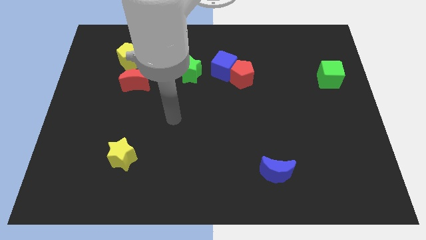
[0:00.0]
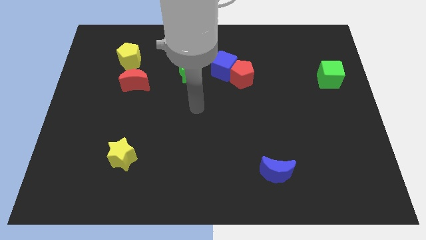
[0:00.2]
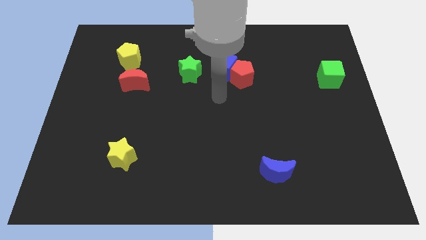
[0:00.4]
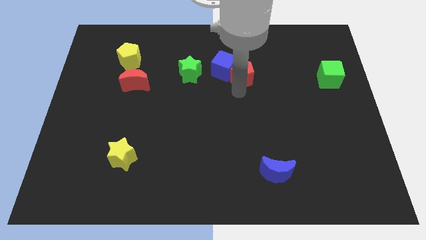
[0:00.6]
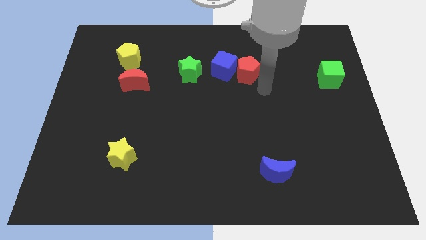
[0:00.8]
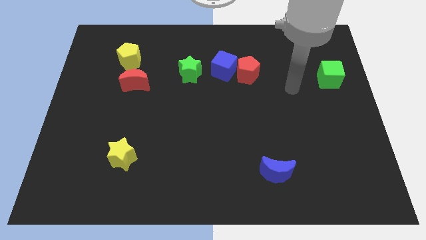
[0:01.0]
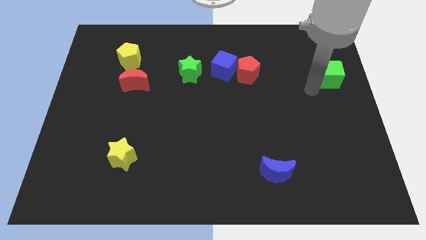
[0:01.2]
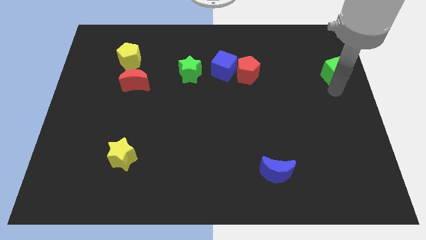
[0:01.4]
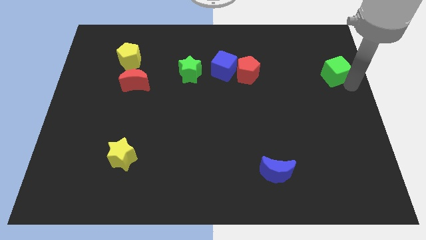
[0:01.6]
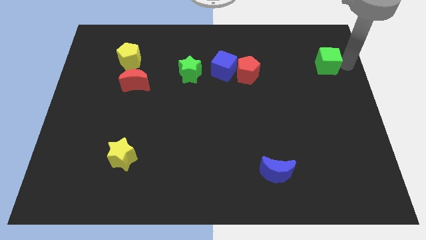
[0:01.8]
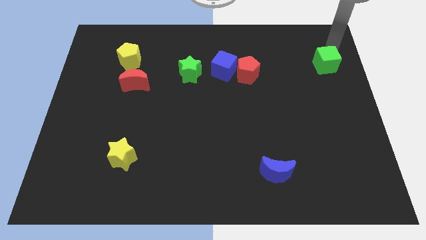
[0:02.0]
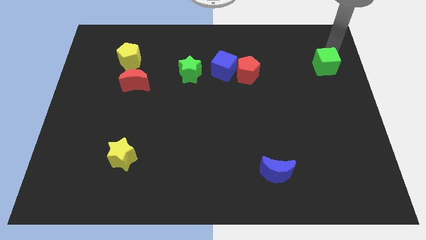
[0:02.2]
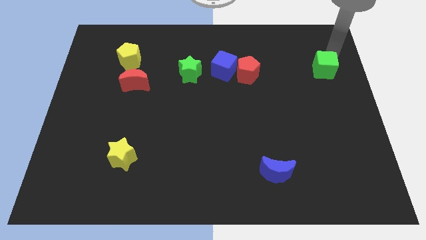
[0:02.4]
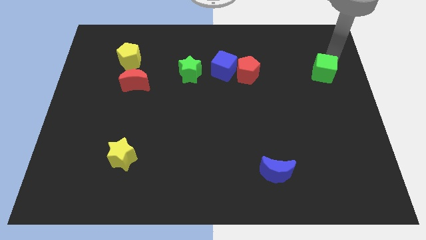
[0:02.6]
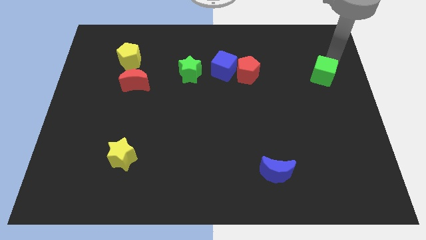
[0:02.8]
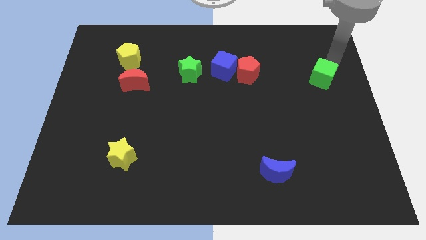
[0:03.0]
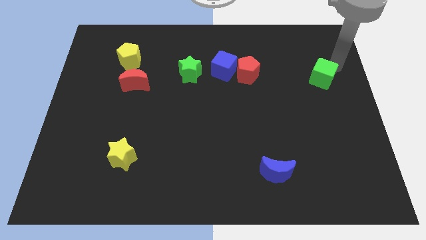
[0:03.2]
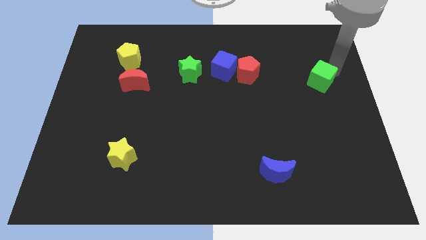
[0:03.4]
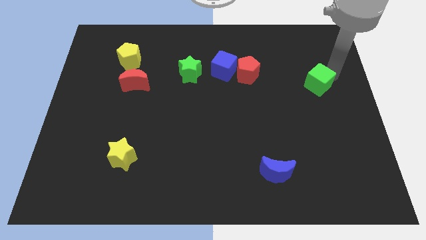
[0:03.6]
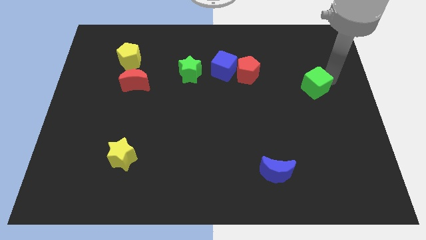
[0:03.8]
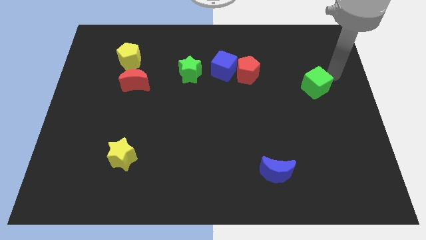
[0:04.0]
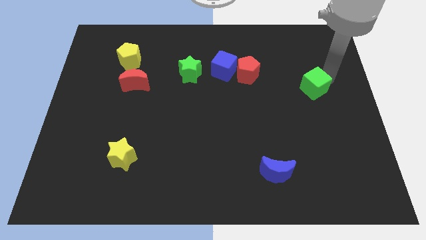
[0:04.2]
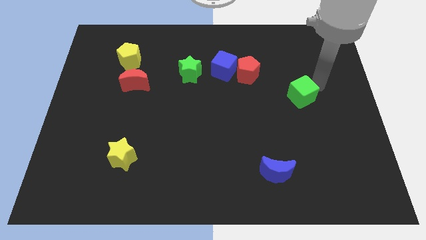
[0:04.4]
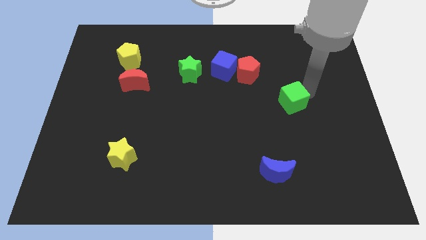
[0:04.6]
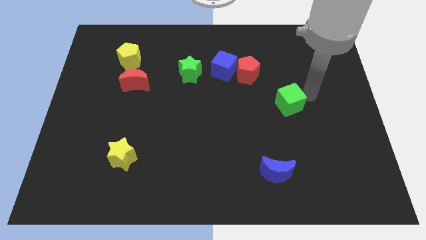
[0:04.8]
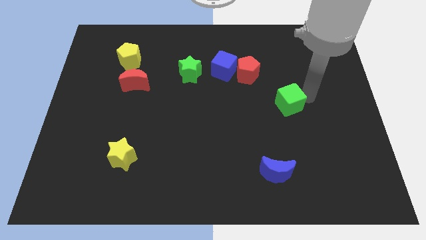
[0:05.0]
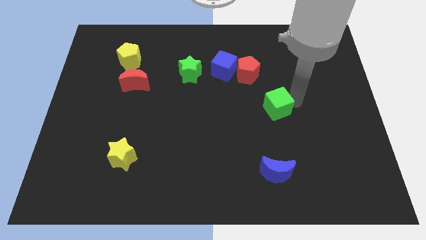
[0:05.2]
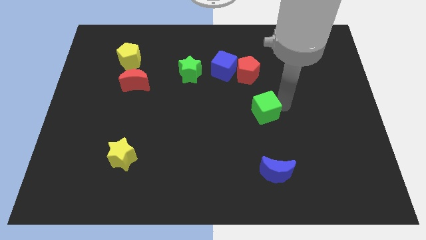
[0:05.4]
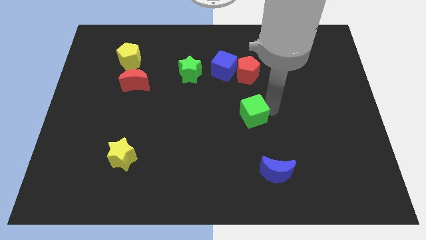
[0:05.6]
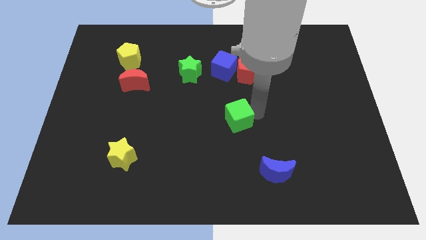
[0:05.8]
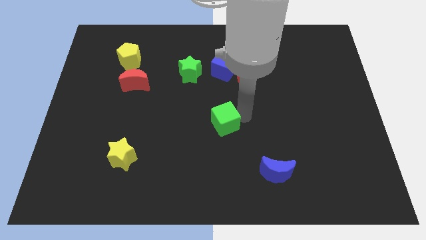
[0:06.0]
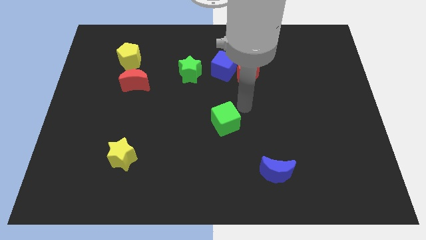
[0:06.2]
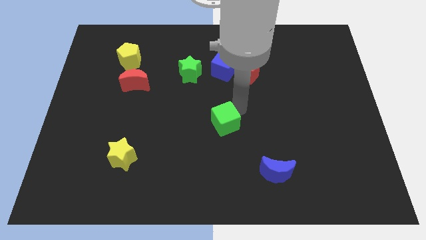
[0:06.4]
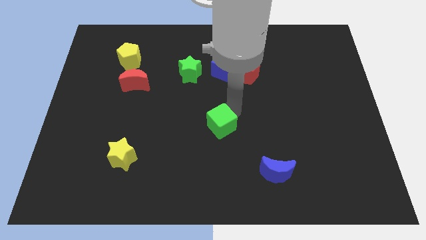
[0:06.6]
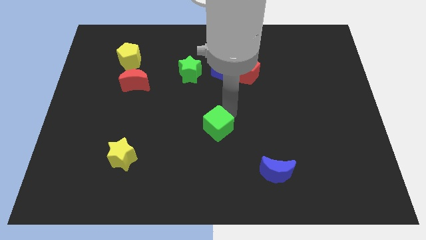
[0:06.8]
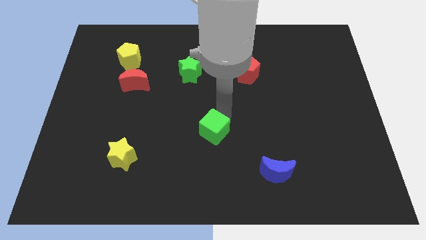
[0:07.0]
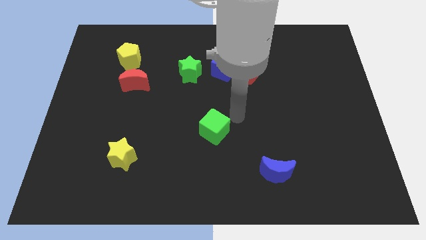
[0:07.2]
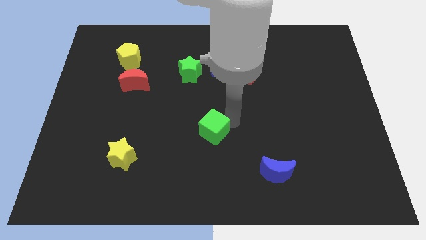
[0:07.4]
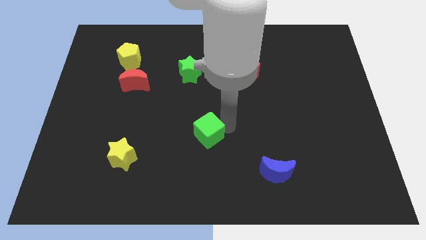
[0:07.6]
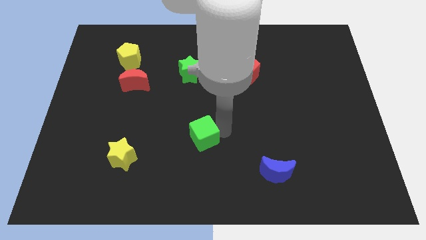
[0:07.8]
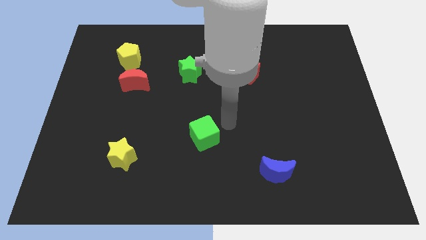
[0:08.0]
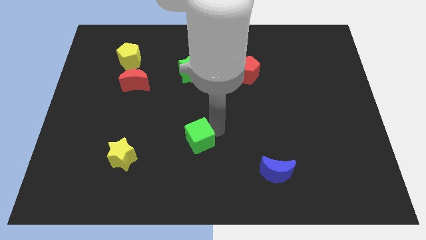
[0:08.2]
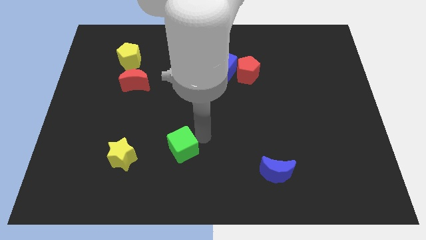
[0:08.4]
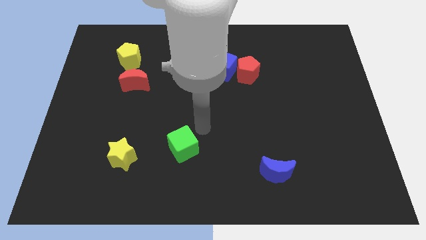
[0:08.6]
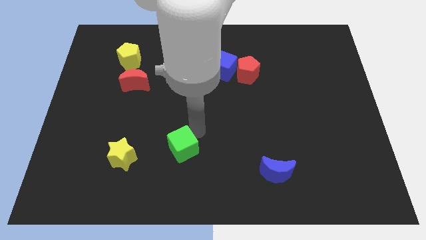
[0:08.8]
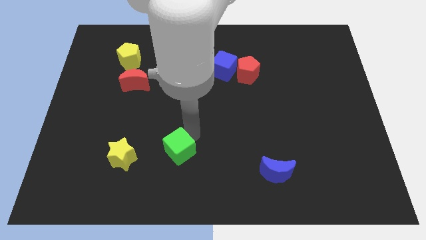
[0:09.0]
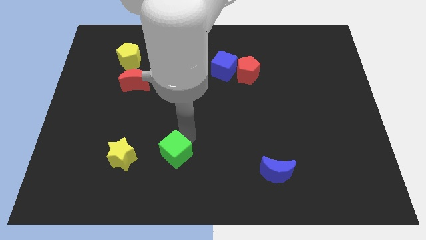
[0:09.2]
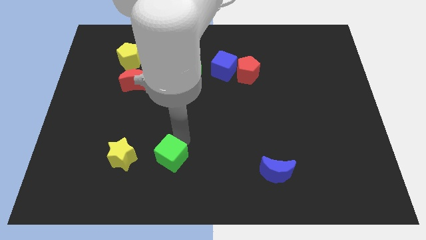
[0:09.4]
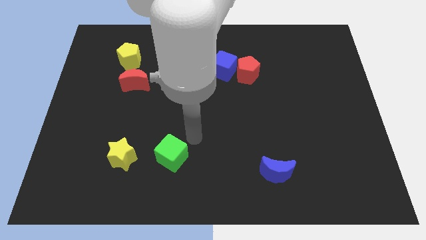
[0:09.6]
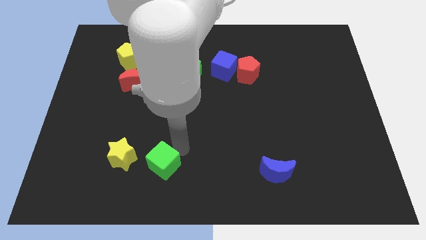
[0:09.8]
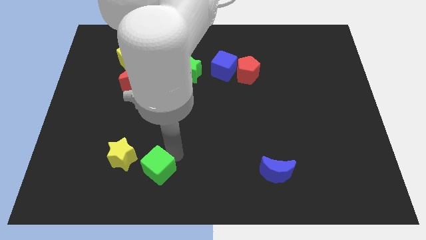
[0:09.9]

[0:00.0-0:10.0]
push the green cube to the bottom right of the yellow star

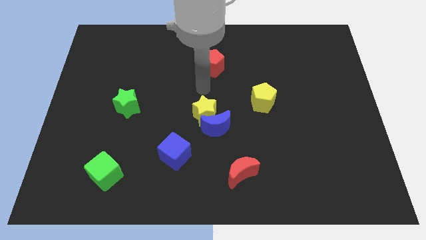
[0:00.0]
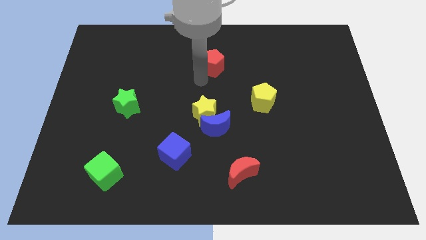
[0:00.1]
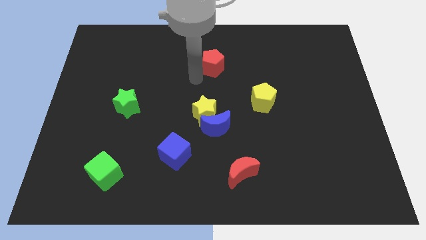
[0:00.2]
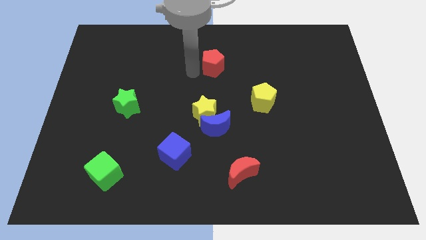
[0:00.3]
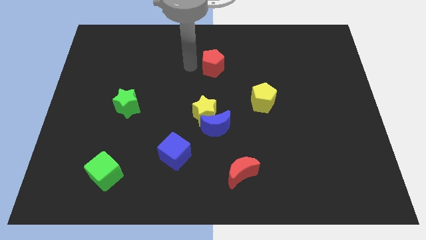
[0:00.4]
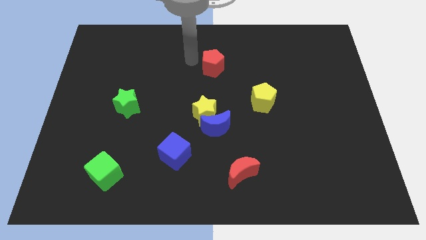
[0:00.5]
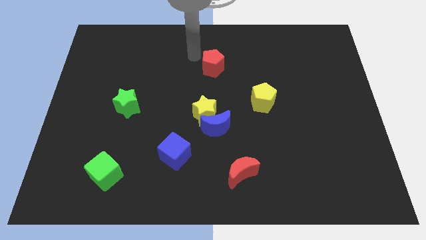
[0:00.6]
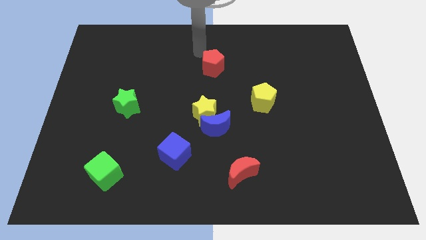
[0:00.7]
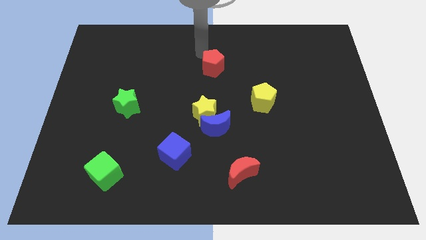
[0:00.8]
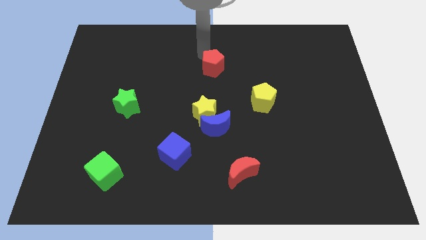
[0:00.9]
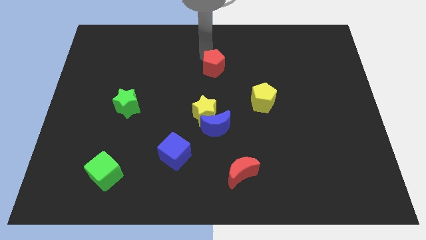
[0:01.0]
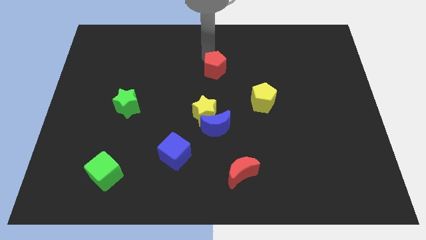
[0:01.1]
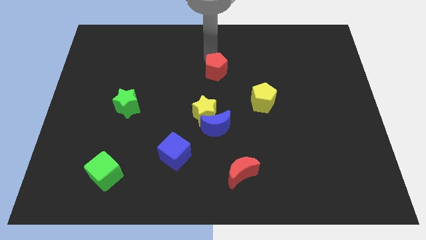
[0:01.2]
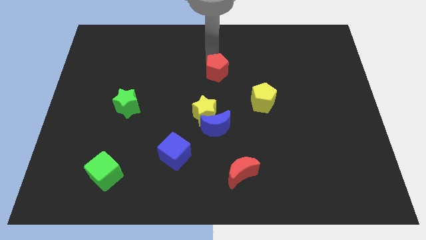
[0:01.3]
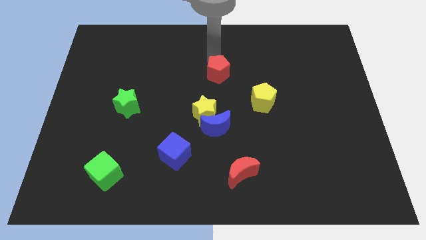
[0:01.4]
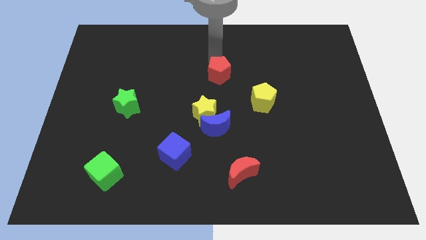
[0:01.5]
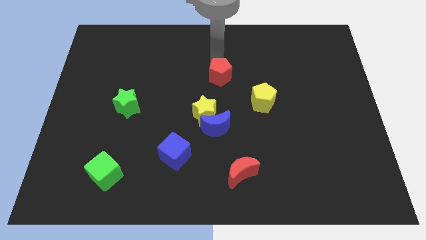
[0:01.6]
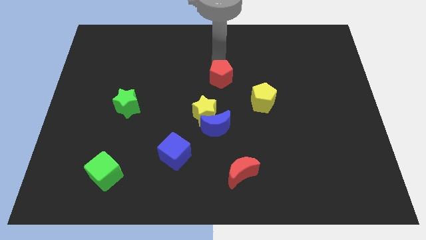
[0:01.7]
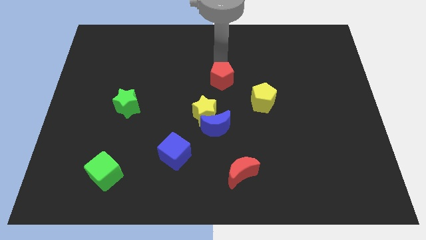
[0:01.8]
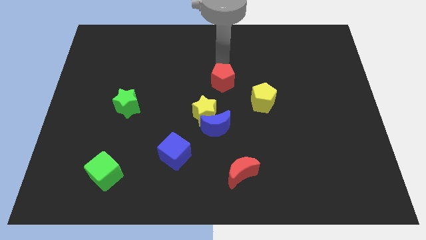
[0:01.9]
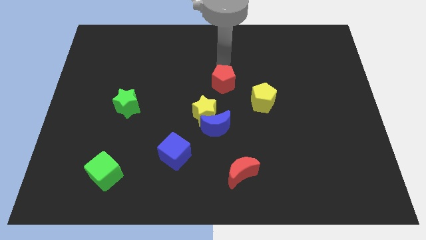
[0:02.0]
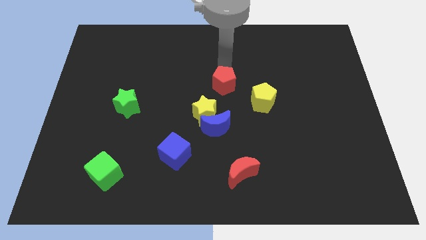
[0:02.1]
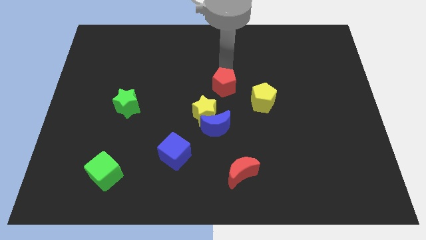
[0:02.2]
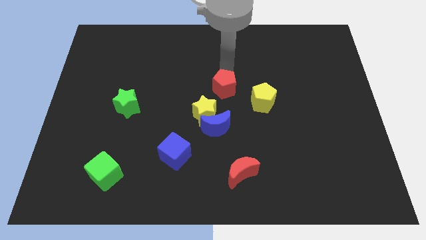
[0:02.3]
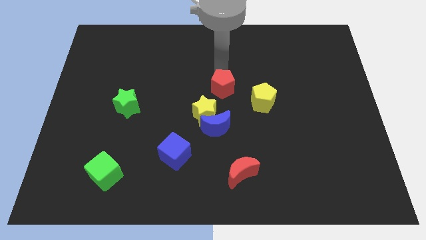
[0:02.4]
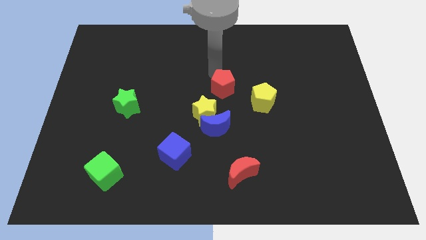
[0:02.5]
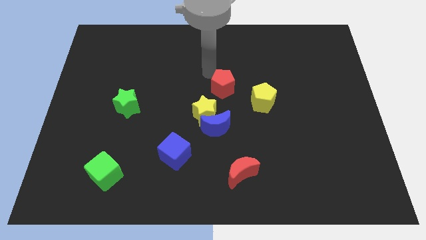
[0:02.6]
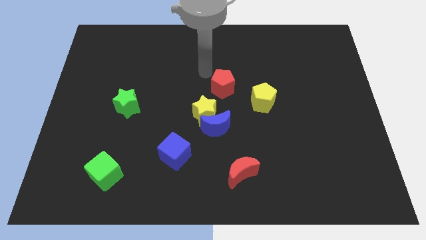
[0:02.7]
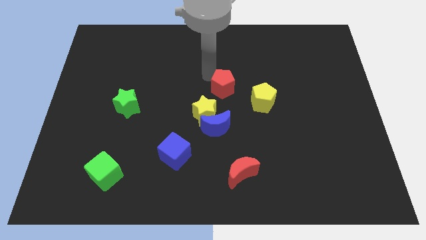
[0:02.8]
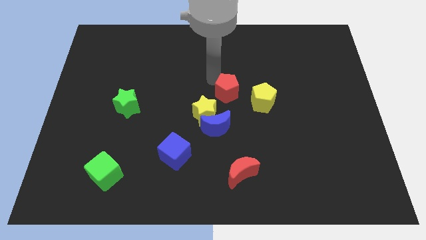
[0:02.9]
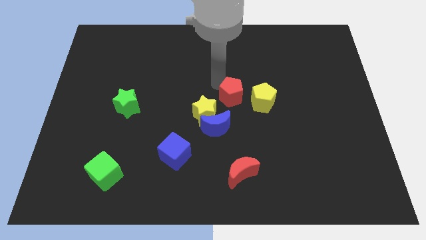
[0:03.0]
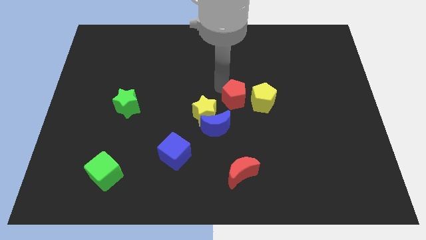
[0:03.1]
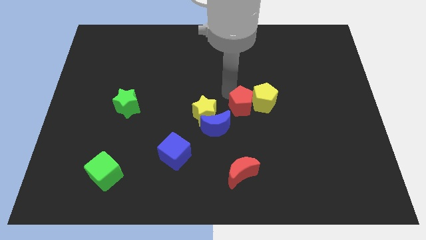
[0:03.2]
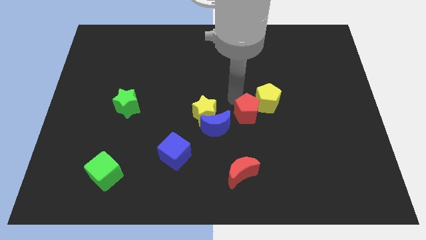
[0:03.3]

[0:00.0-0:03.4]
put the red pentagon just right of the blue moon

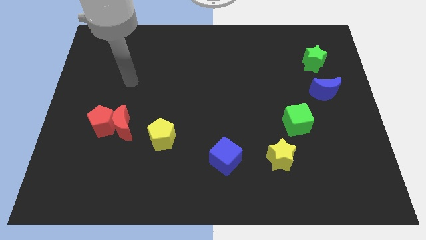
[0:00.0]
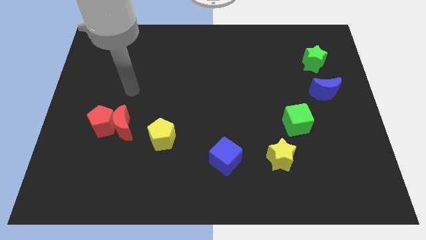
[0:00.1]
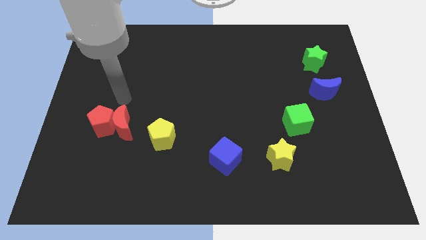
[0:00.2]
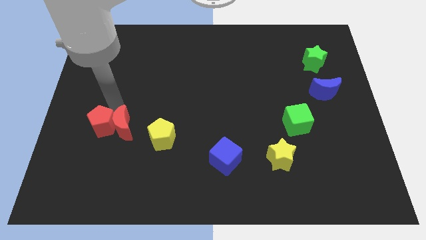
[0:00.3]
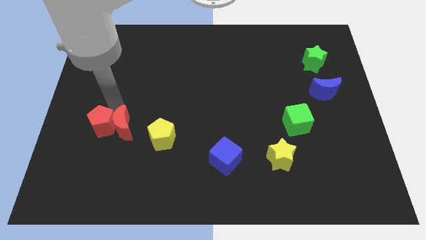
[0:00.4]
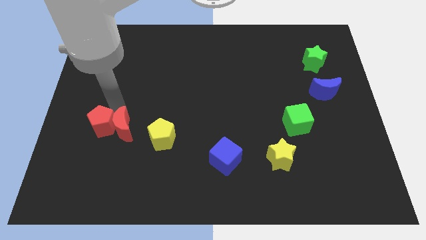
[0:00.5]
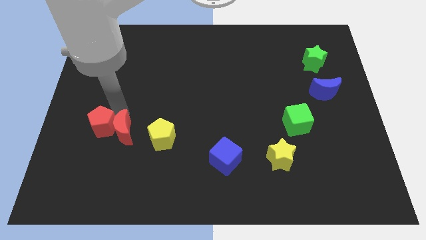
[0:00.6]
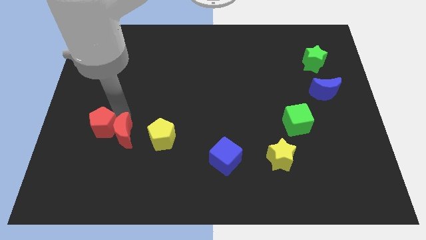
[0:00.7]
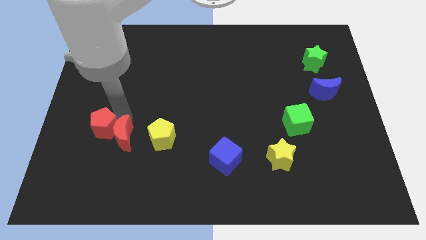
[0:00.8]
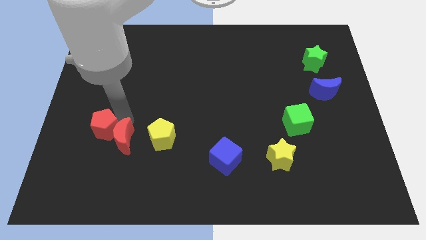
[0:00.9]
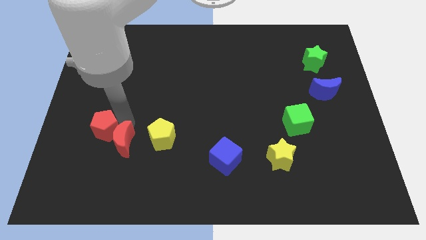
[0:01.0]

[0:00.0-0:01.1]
put the red moon to the bottom left side of the yellow pentagon
